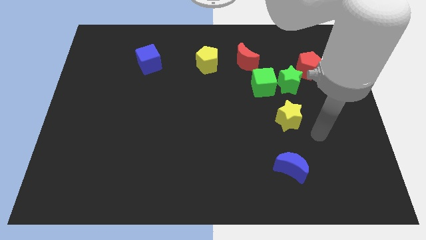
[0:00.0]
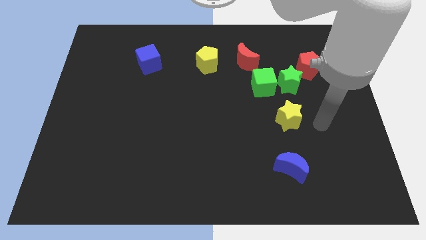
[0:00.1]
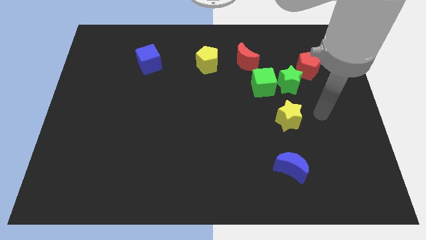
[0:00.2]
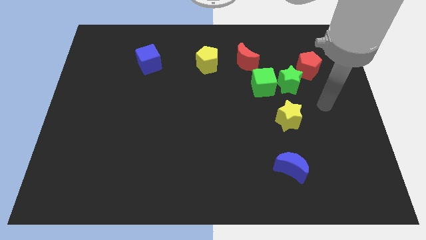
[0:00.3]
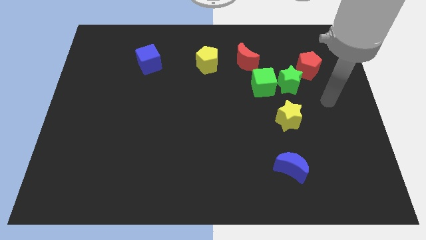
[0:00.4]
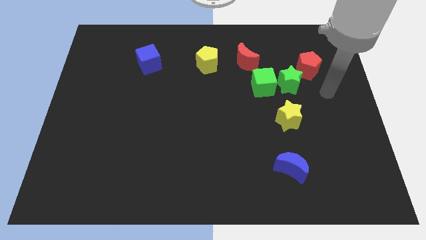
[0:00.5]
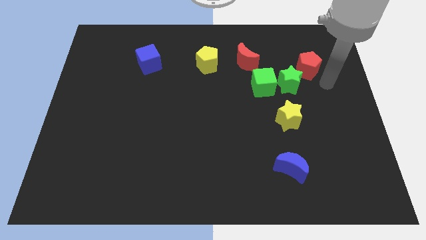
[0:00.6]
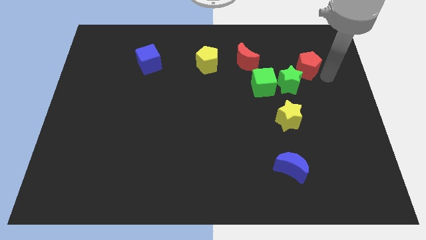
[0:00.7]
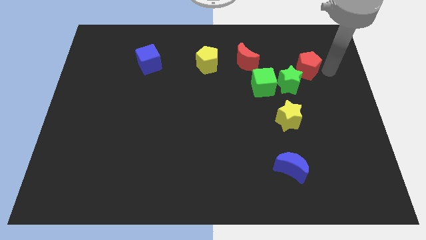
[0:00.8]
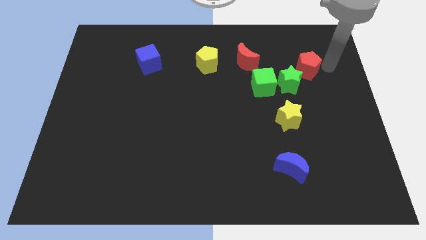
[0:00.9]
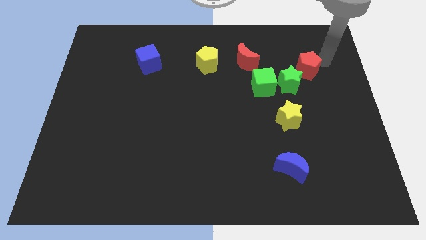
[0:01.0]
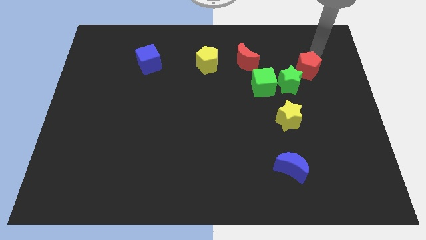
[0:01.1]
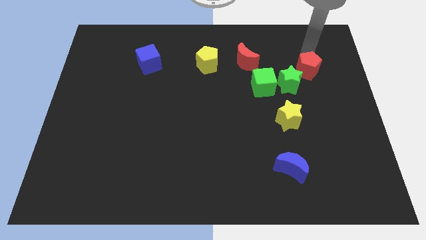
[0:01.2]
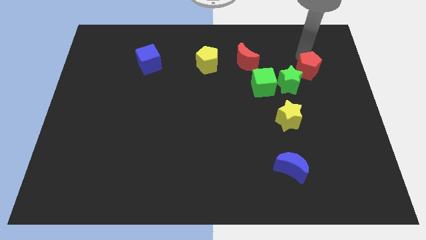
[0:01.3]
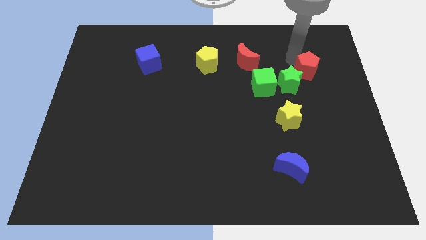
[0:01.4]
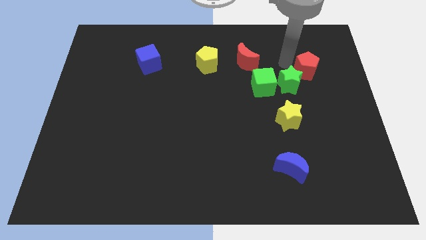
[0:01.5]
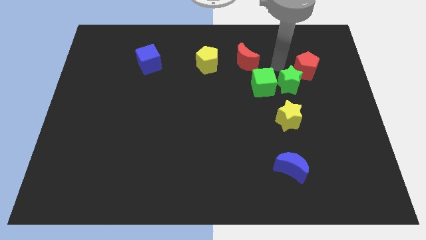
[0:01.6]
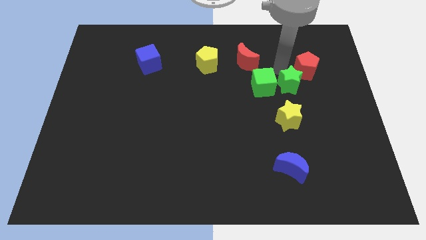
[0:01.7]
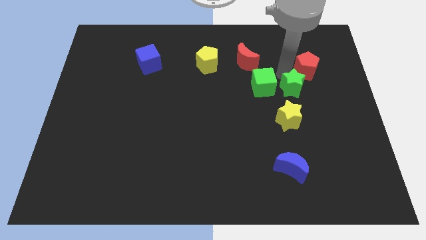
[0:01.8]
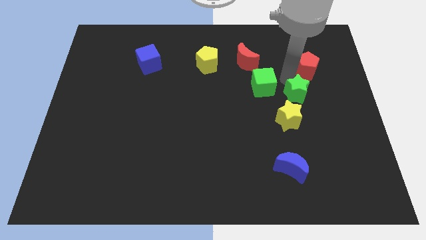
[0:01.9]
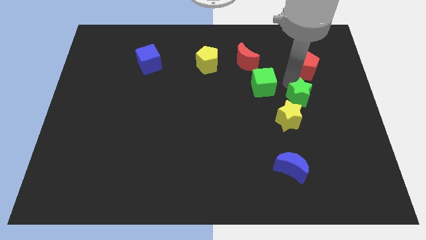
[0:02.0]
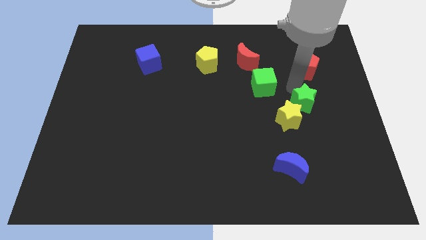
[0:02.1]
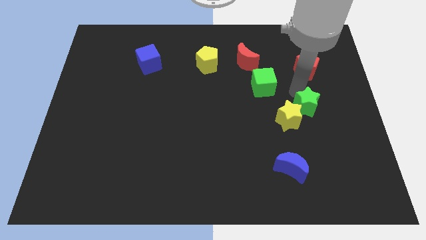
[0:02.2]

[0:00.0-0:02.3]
separate the green star from the green cube and red pentagon

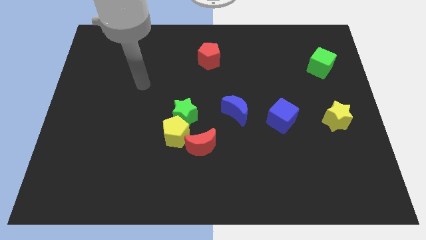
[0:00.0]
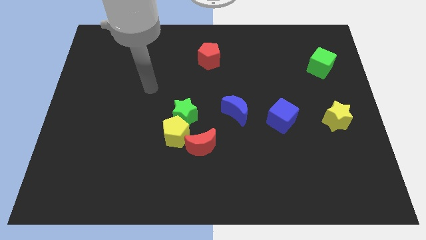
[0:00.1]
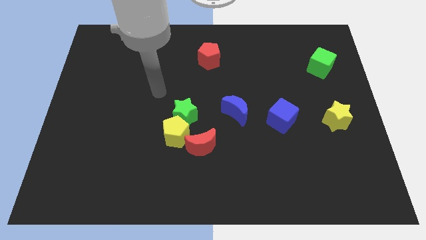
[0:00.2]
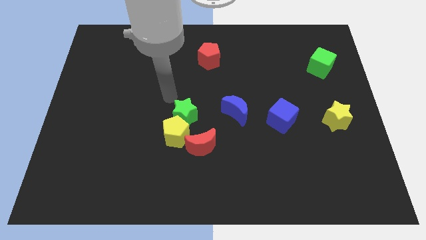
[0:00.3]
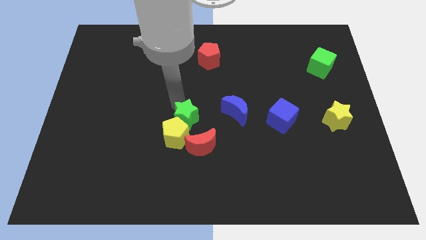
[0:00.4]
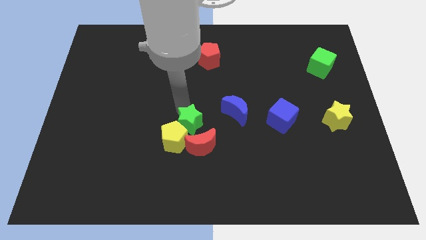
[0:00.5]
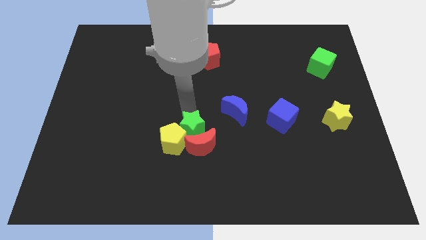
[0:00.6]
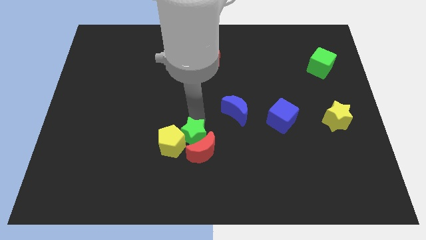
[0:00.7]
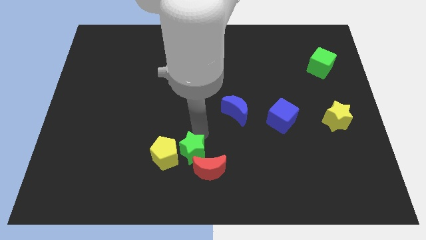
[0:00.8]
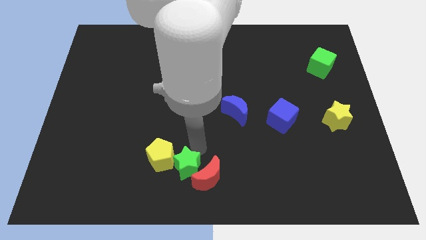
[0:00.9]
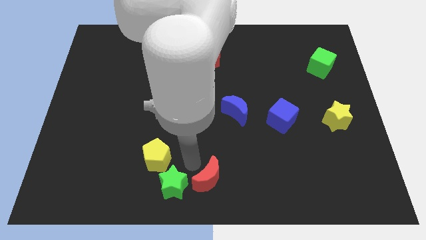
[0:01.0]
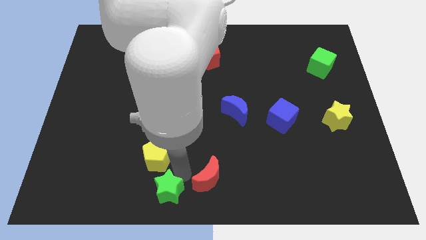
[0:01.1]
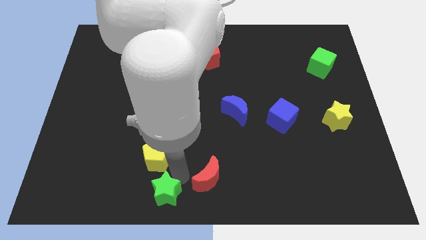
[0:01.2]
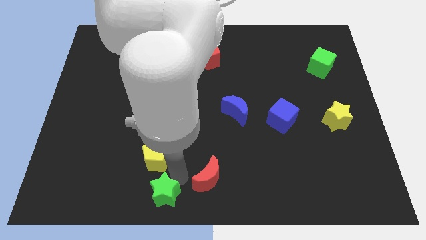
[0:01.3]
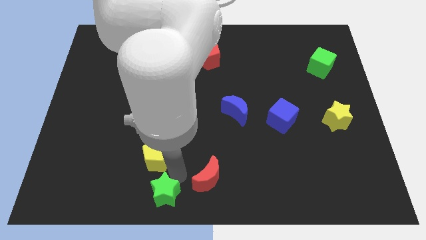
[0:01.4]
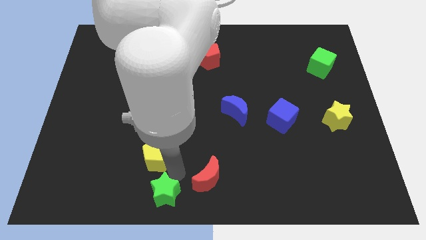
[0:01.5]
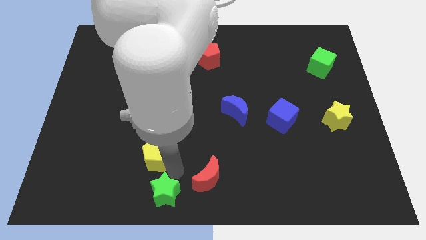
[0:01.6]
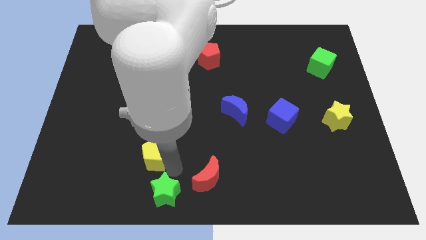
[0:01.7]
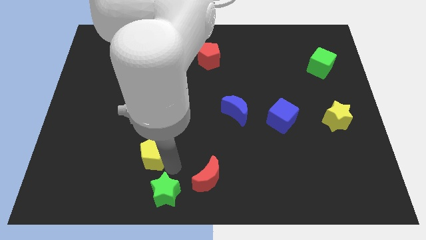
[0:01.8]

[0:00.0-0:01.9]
move the yellow pentagon away from the green star and red moon

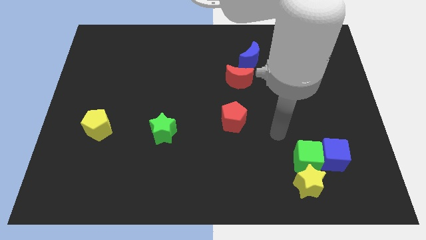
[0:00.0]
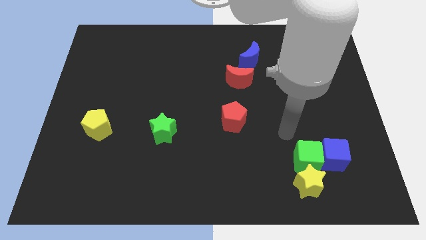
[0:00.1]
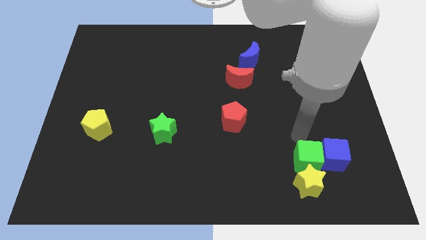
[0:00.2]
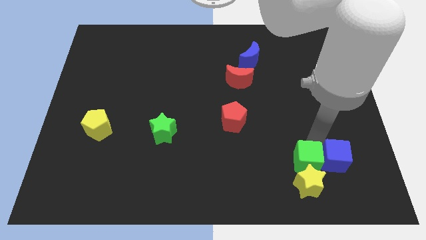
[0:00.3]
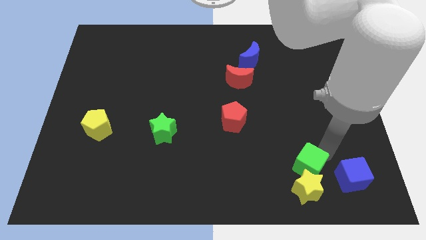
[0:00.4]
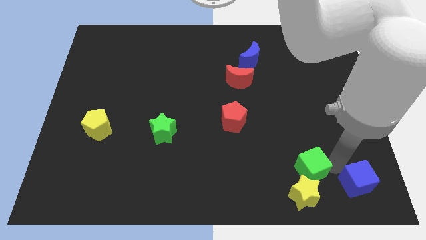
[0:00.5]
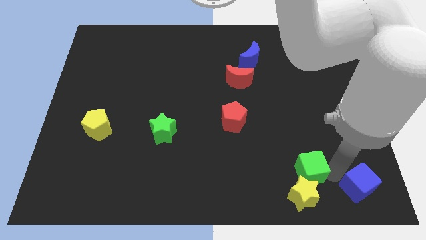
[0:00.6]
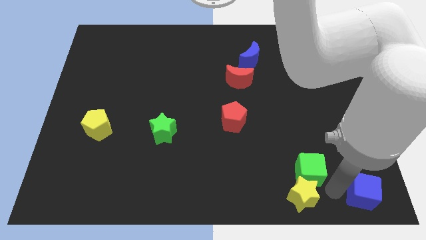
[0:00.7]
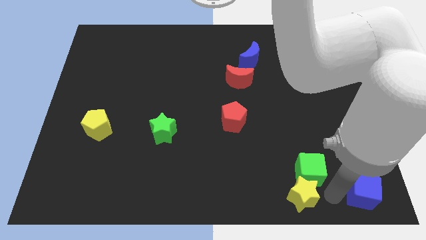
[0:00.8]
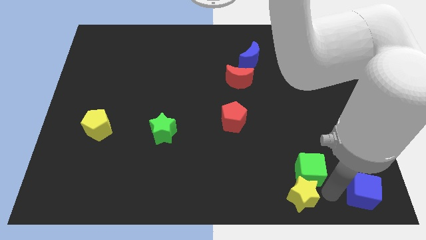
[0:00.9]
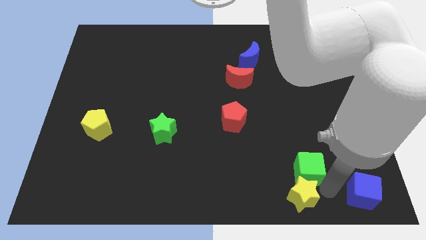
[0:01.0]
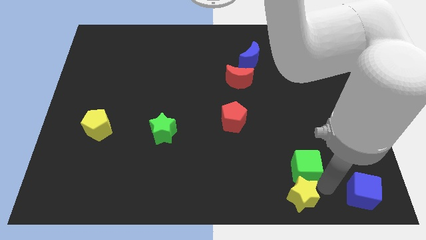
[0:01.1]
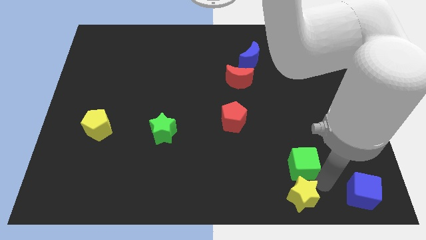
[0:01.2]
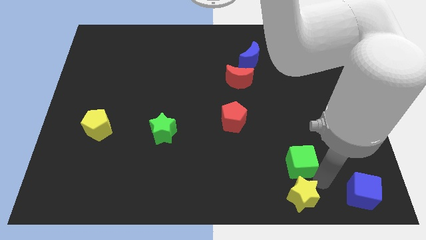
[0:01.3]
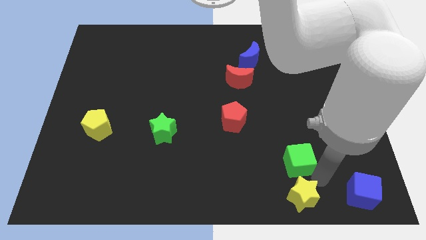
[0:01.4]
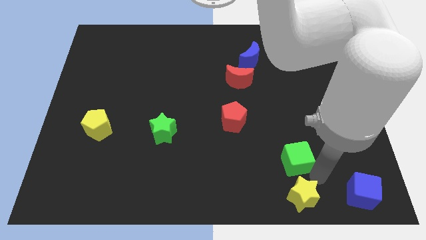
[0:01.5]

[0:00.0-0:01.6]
pull the green cube apart from the blue cube and yellow star

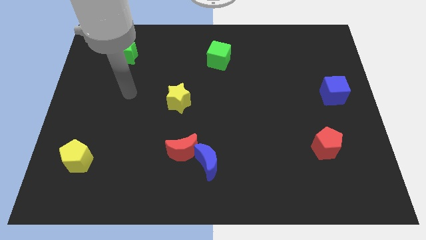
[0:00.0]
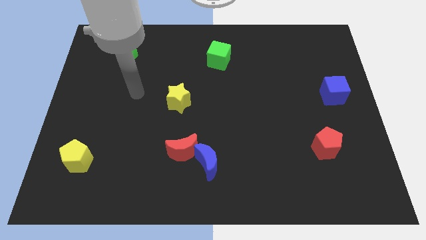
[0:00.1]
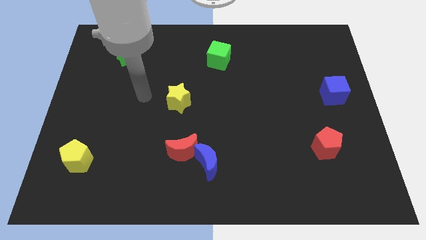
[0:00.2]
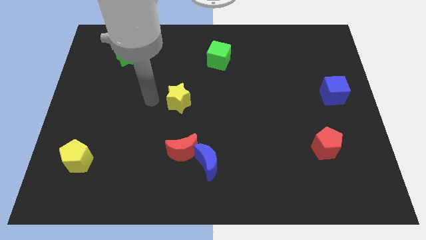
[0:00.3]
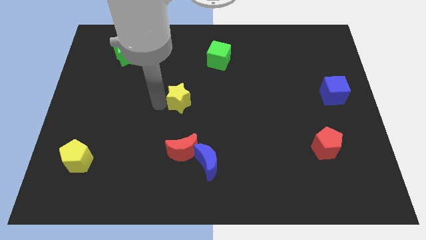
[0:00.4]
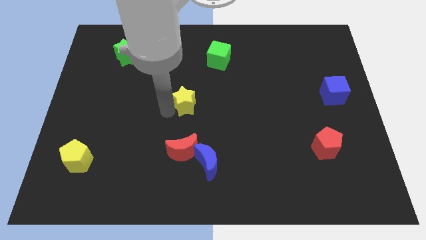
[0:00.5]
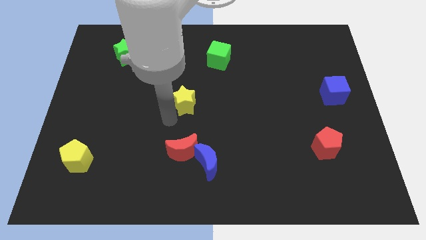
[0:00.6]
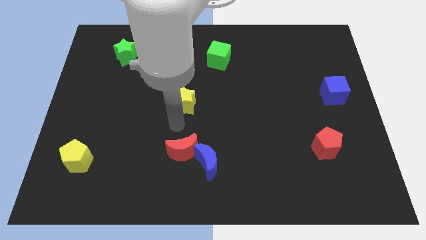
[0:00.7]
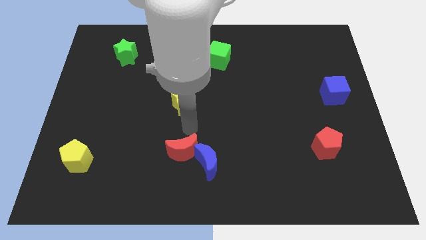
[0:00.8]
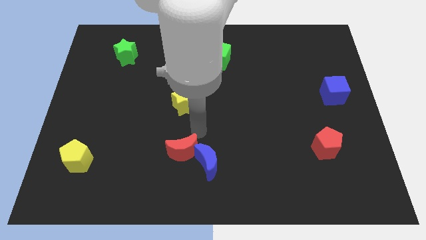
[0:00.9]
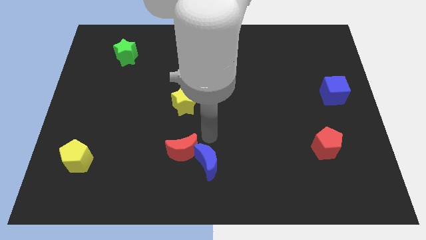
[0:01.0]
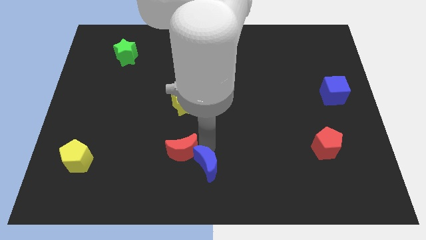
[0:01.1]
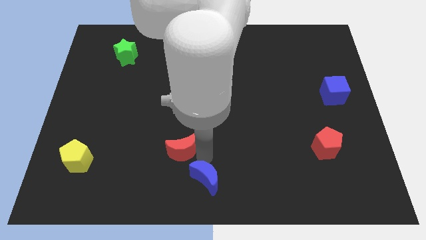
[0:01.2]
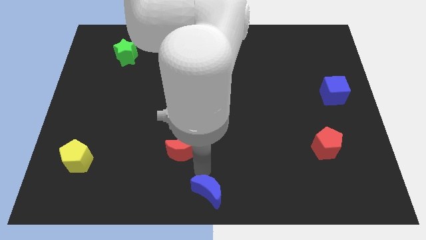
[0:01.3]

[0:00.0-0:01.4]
separate the red moon from the blue moon

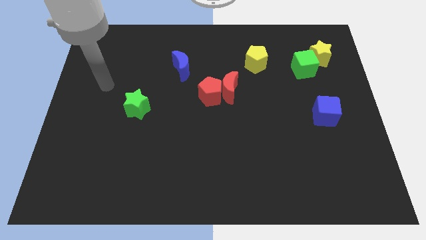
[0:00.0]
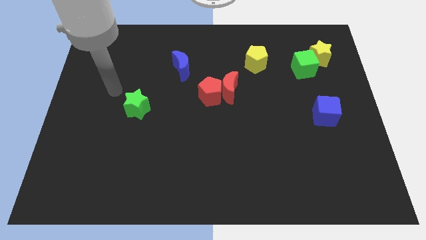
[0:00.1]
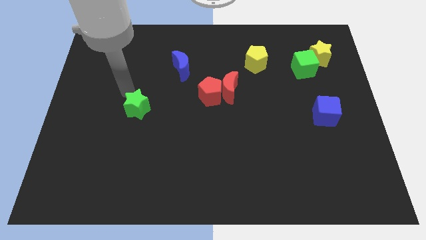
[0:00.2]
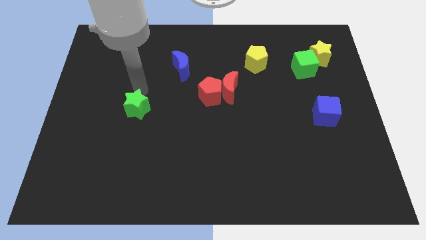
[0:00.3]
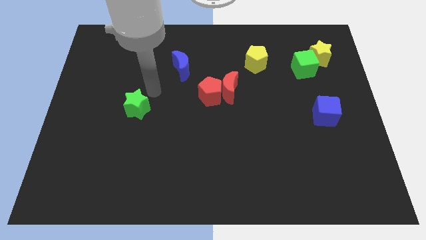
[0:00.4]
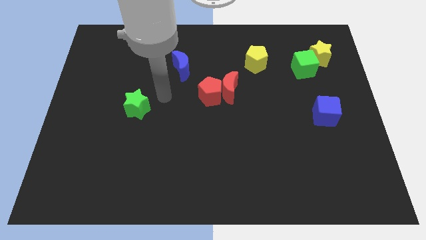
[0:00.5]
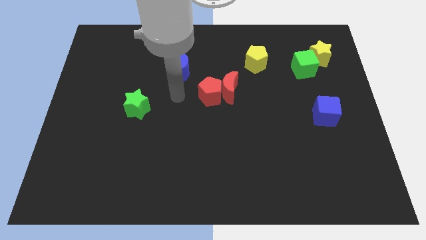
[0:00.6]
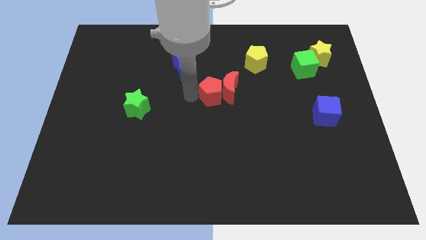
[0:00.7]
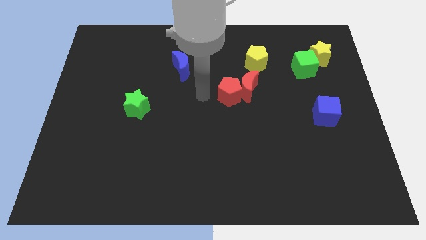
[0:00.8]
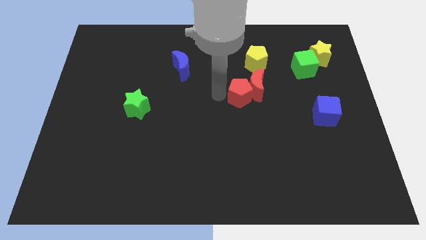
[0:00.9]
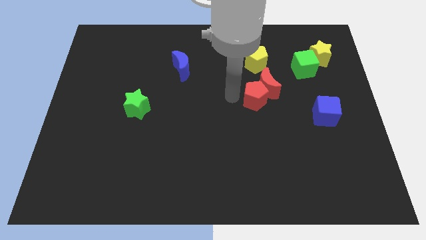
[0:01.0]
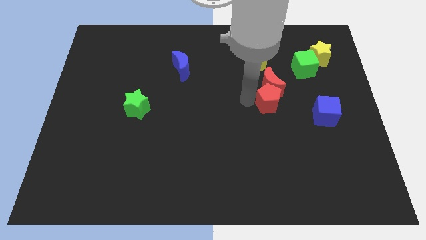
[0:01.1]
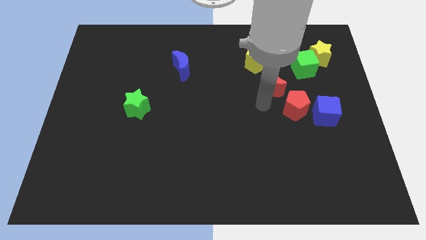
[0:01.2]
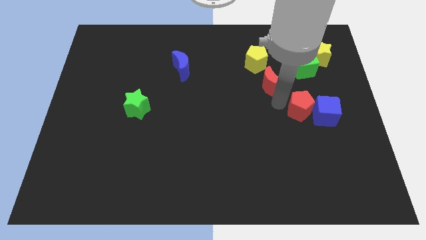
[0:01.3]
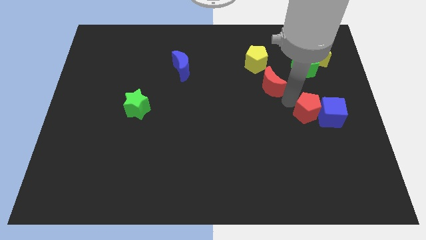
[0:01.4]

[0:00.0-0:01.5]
pull the red moon apart from the red pentagon

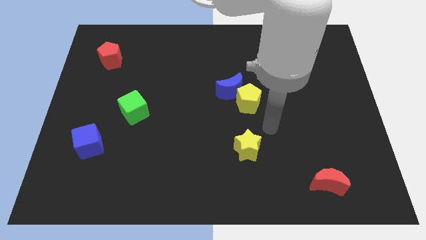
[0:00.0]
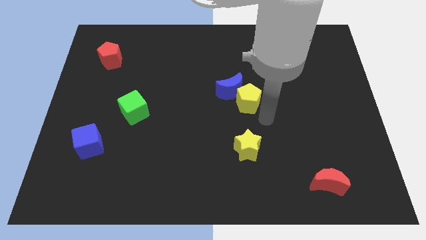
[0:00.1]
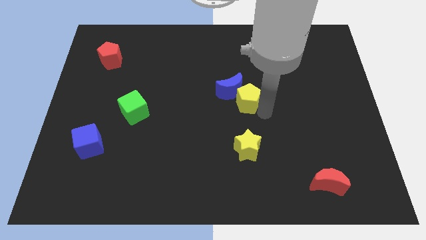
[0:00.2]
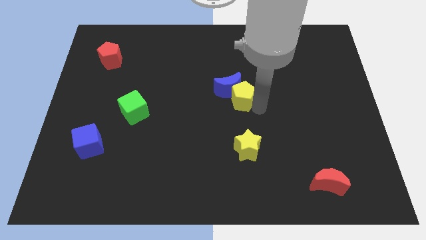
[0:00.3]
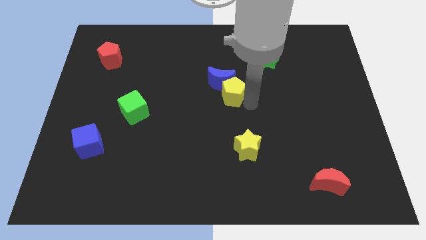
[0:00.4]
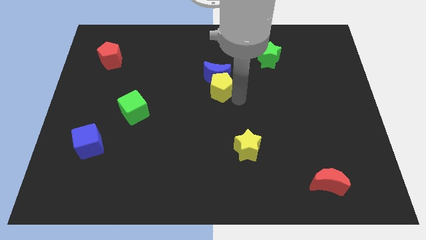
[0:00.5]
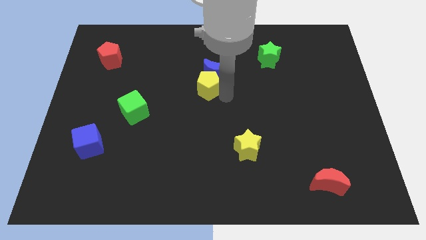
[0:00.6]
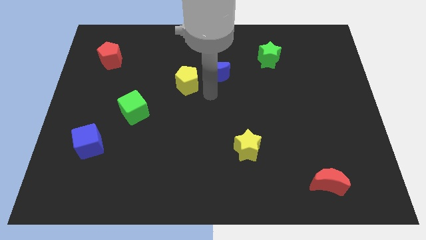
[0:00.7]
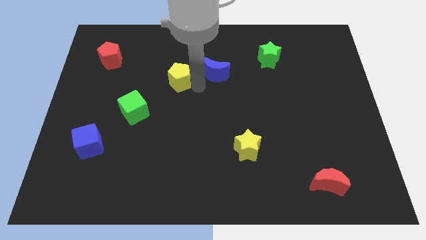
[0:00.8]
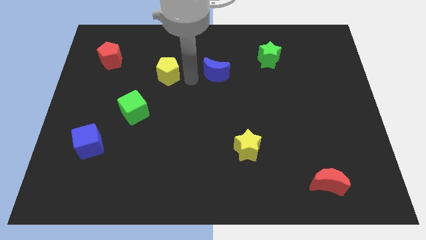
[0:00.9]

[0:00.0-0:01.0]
move the blue moon away from the yellow pentagon
